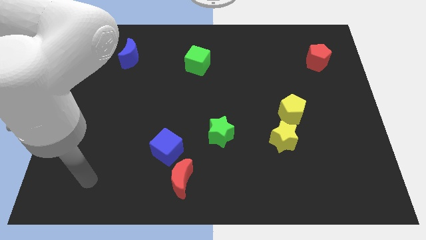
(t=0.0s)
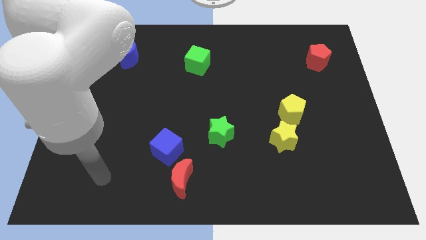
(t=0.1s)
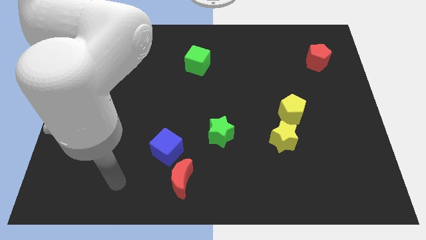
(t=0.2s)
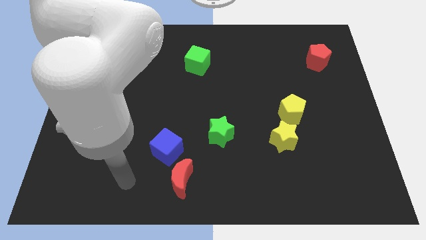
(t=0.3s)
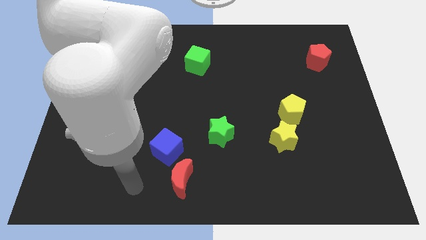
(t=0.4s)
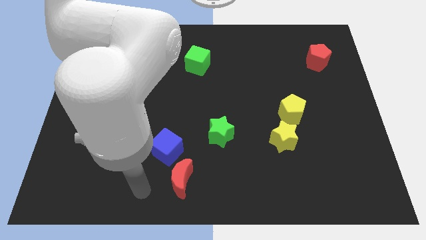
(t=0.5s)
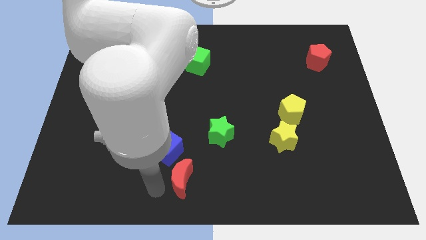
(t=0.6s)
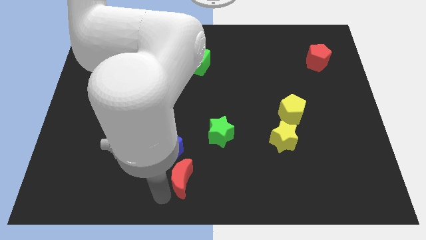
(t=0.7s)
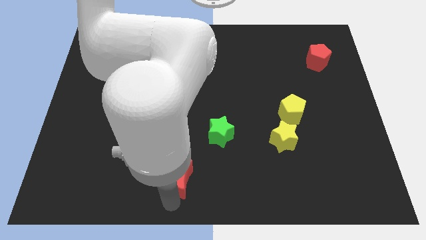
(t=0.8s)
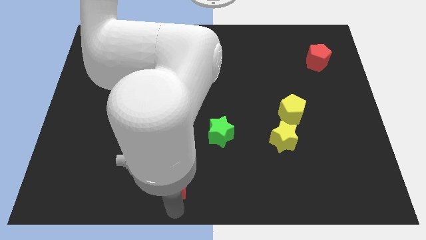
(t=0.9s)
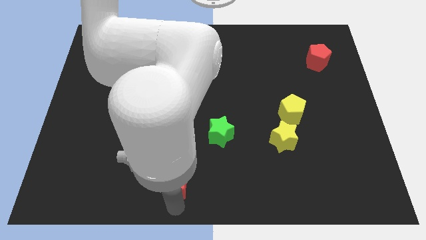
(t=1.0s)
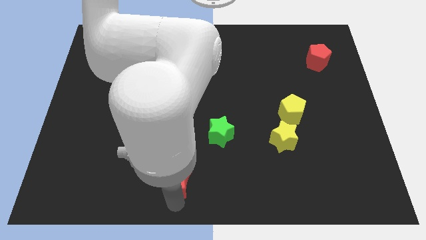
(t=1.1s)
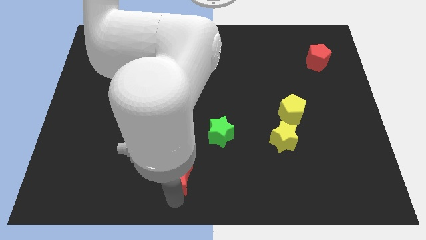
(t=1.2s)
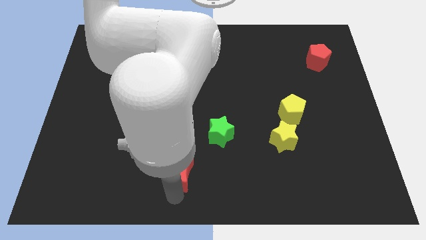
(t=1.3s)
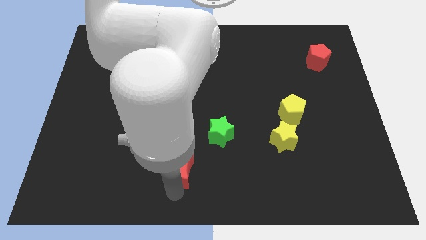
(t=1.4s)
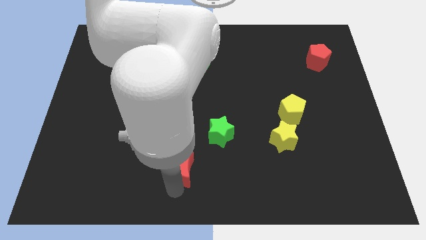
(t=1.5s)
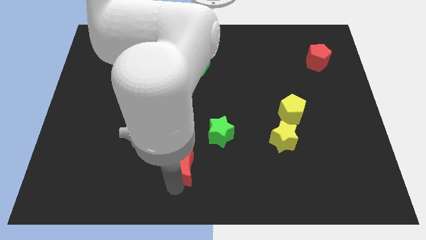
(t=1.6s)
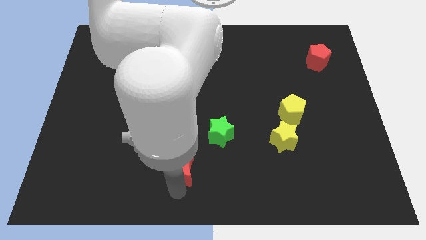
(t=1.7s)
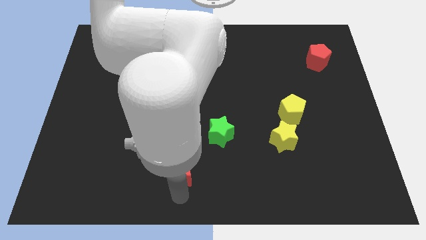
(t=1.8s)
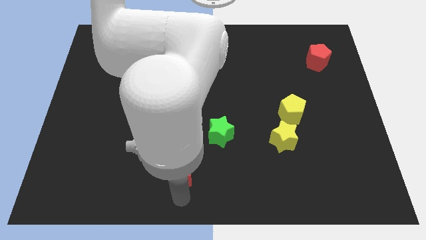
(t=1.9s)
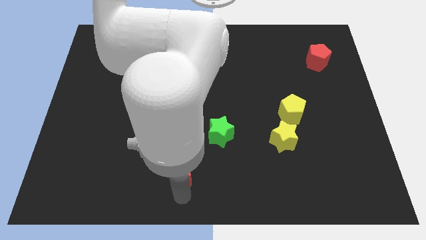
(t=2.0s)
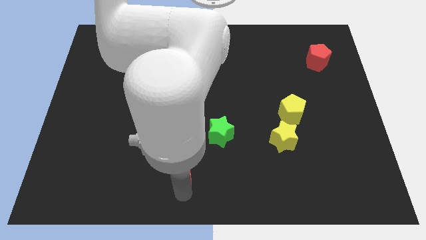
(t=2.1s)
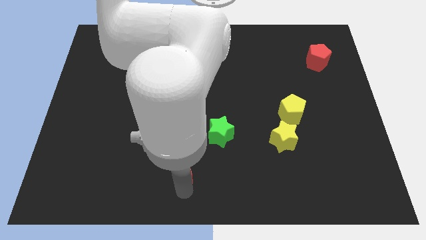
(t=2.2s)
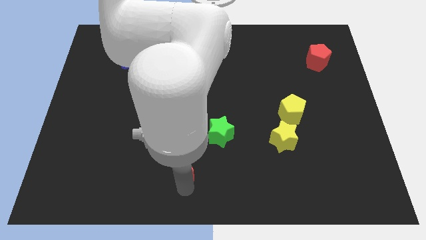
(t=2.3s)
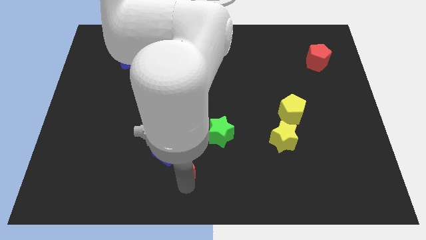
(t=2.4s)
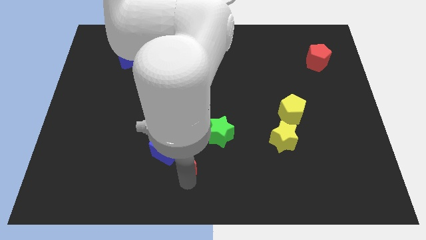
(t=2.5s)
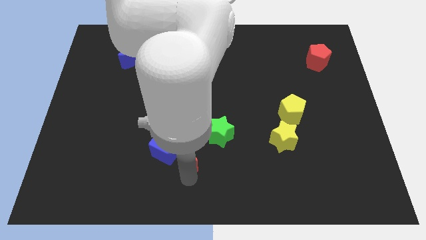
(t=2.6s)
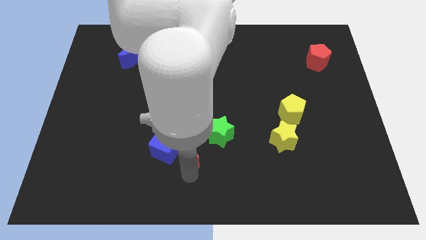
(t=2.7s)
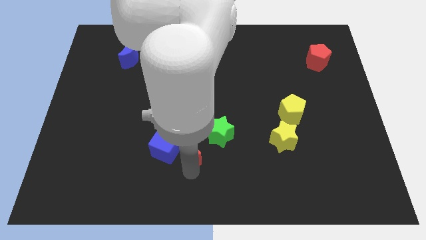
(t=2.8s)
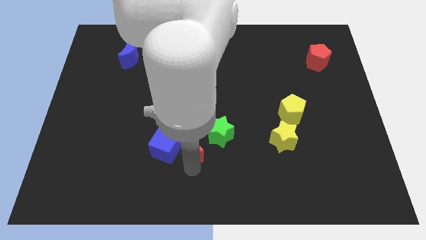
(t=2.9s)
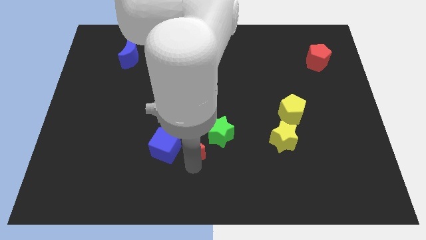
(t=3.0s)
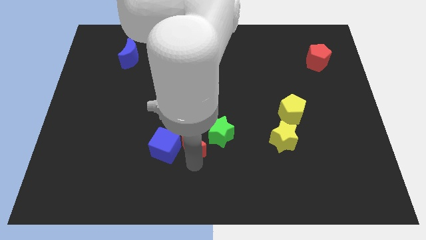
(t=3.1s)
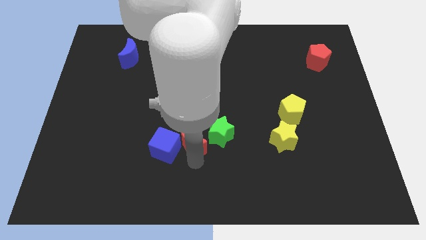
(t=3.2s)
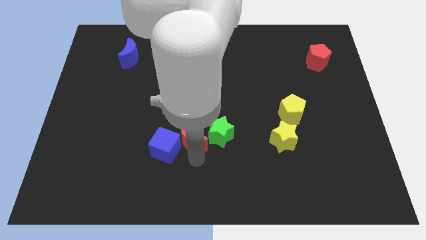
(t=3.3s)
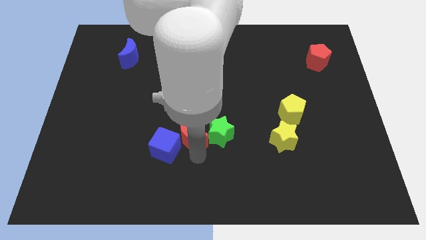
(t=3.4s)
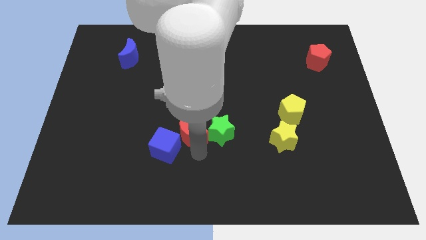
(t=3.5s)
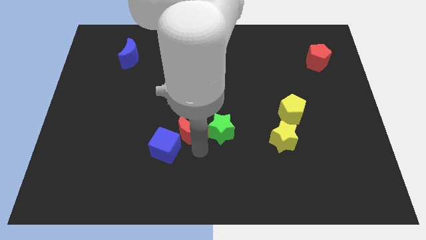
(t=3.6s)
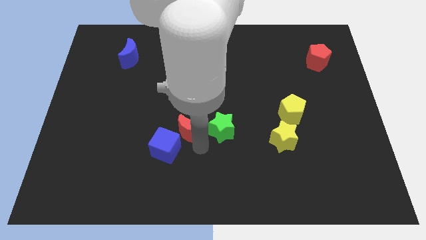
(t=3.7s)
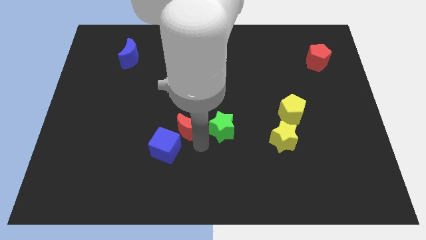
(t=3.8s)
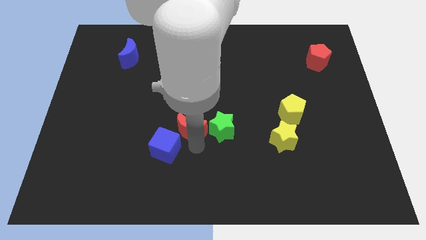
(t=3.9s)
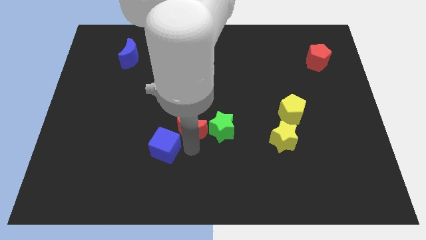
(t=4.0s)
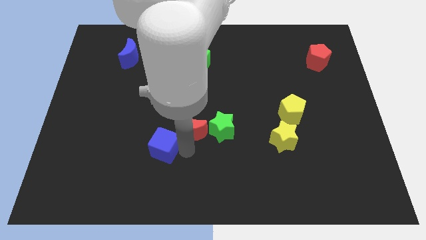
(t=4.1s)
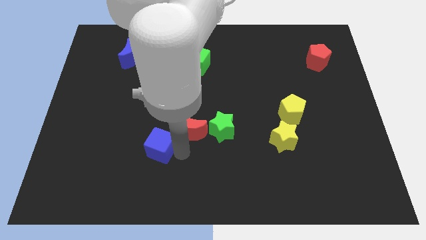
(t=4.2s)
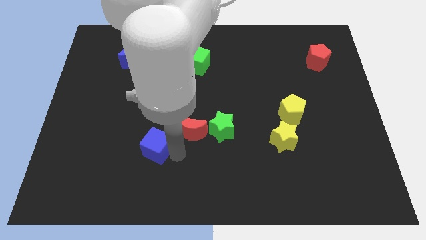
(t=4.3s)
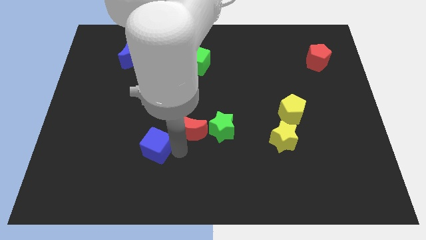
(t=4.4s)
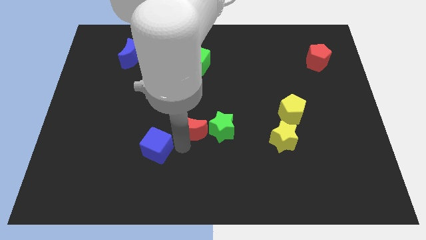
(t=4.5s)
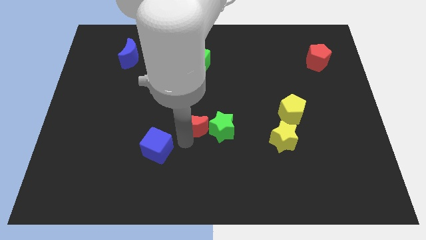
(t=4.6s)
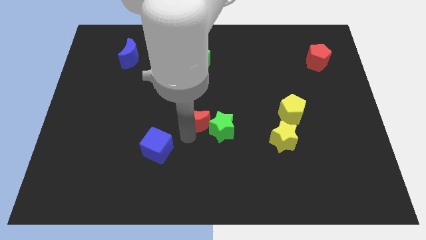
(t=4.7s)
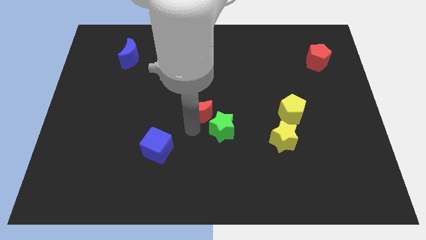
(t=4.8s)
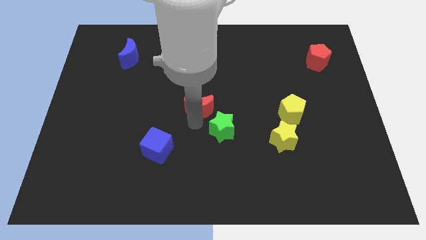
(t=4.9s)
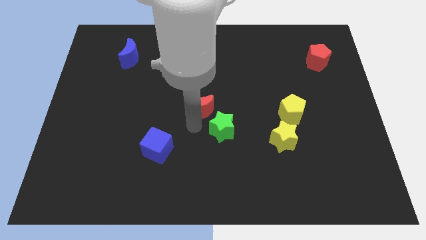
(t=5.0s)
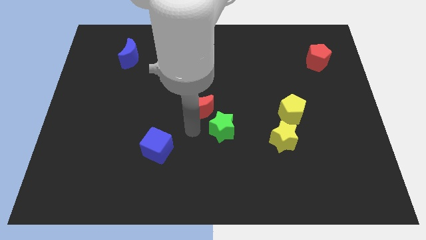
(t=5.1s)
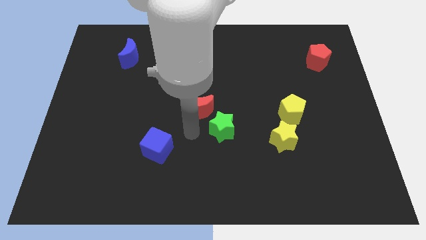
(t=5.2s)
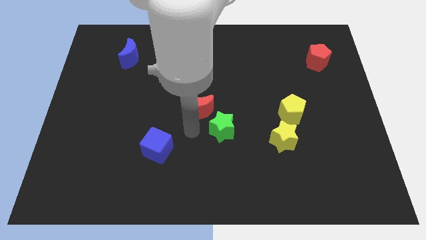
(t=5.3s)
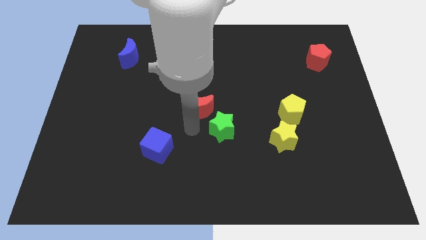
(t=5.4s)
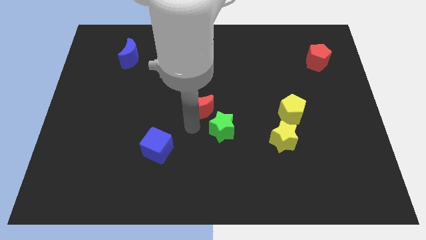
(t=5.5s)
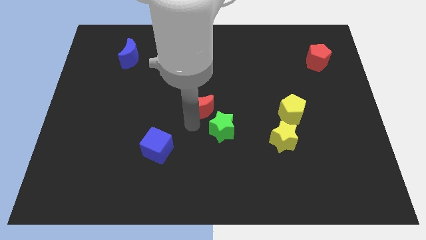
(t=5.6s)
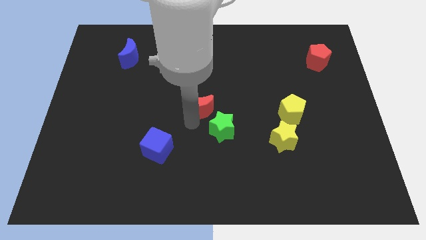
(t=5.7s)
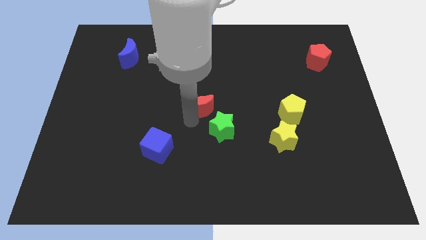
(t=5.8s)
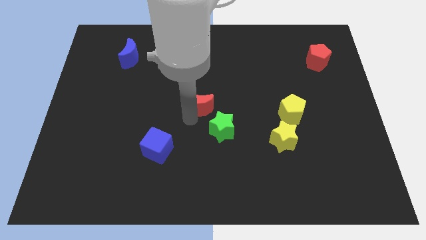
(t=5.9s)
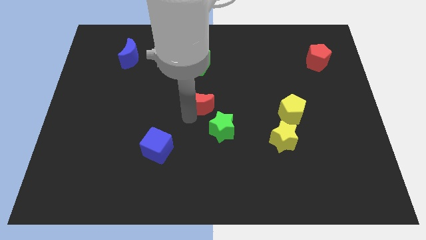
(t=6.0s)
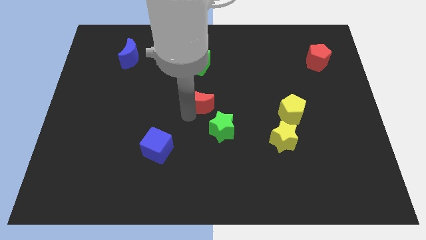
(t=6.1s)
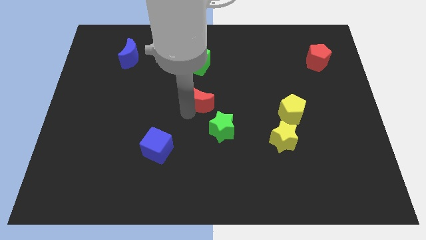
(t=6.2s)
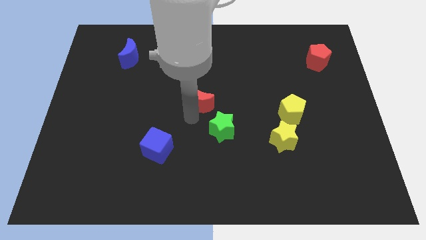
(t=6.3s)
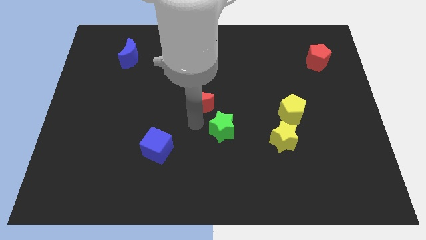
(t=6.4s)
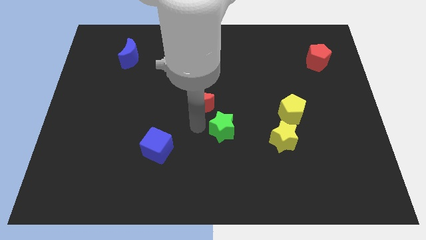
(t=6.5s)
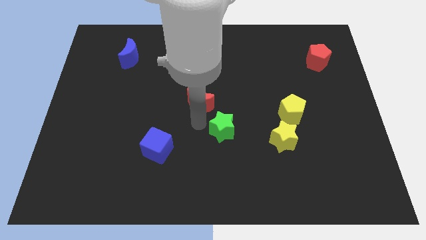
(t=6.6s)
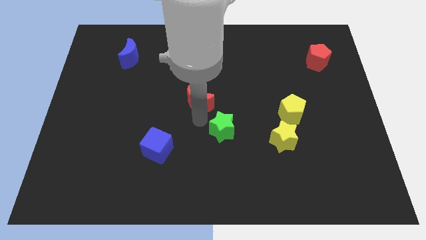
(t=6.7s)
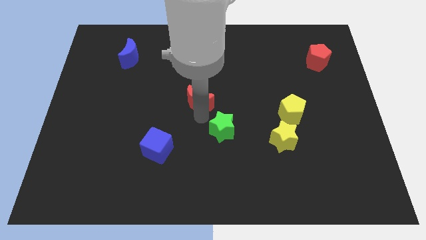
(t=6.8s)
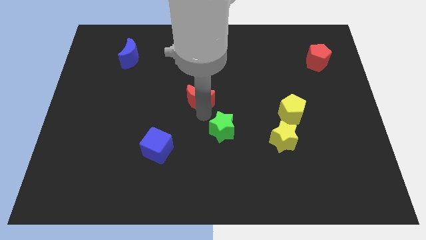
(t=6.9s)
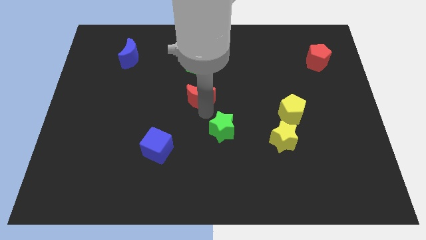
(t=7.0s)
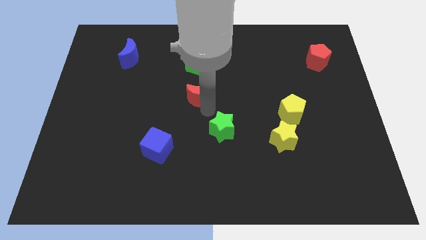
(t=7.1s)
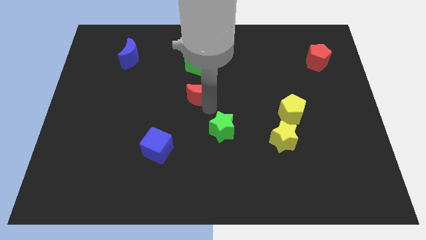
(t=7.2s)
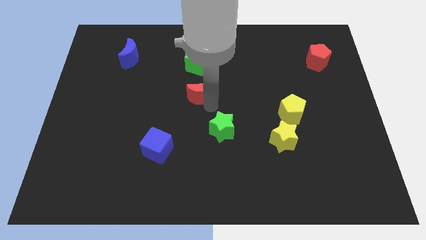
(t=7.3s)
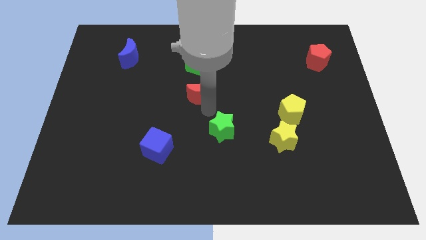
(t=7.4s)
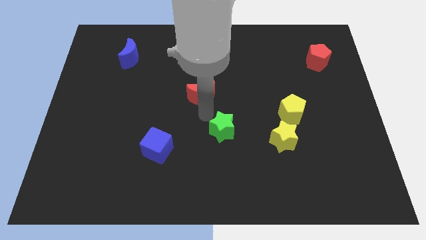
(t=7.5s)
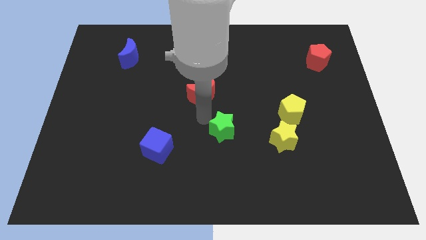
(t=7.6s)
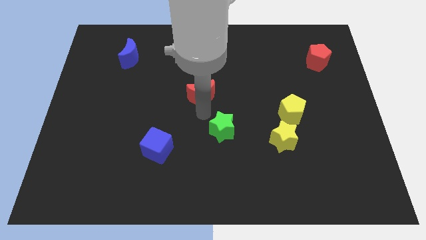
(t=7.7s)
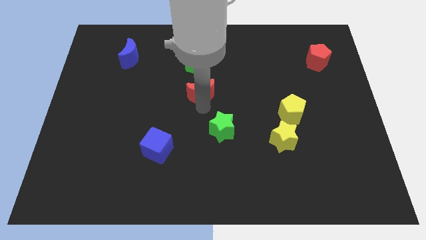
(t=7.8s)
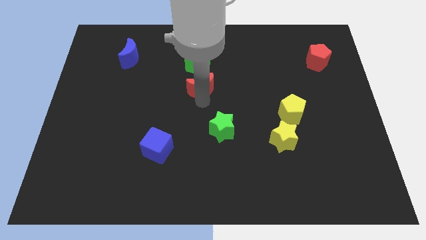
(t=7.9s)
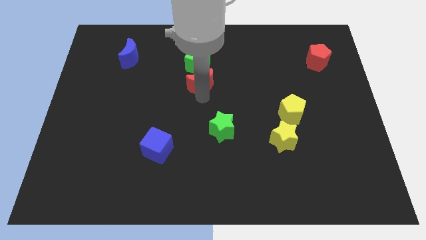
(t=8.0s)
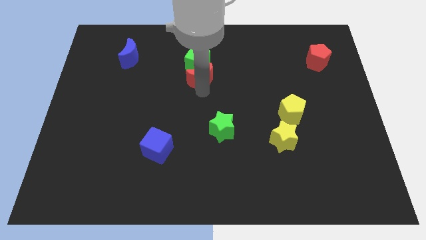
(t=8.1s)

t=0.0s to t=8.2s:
put the red moon towards the green cube
